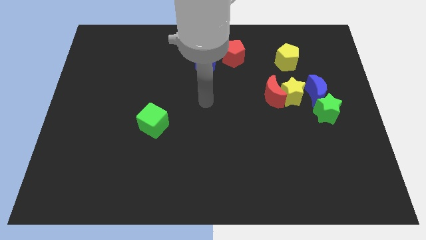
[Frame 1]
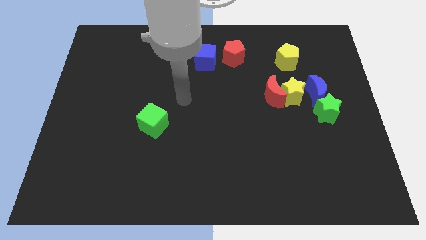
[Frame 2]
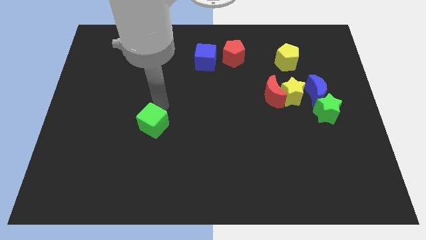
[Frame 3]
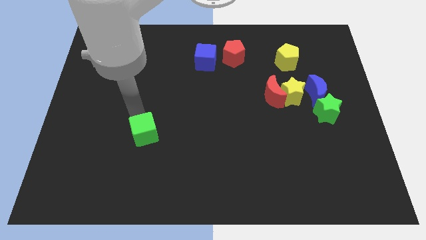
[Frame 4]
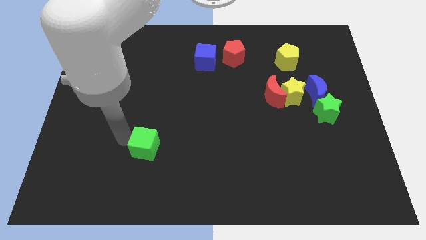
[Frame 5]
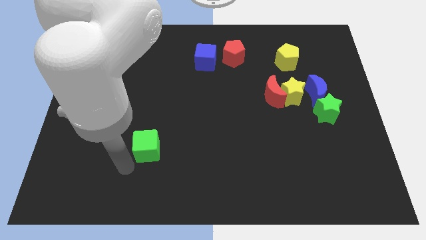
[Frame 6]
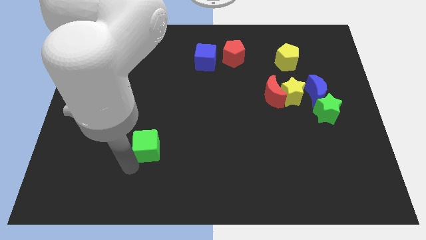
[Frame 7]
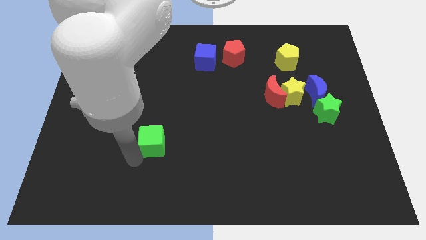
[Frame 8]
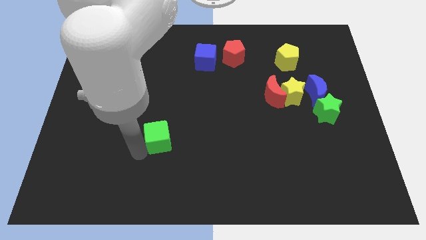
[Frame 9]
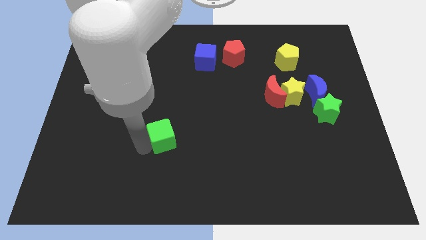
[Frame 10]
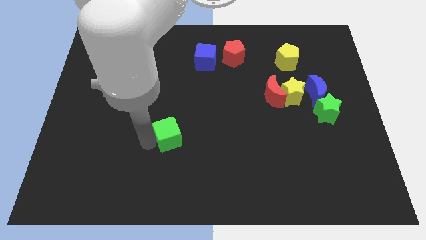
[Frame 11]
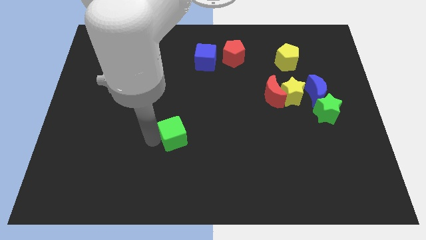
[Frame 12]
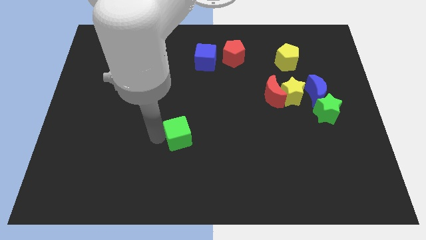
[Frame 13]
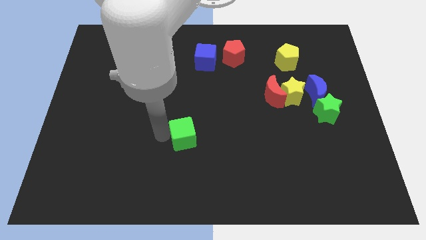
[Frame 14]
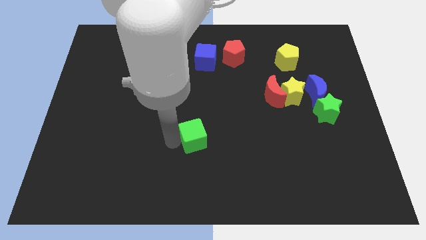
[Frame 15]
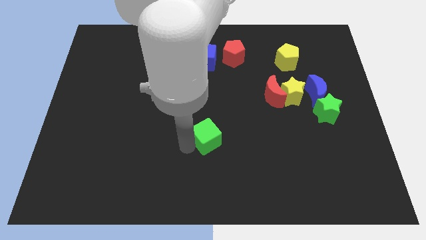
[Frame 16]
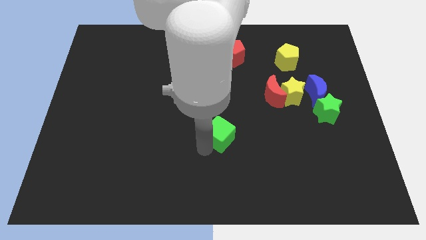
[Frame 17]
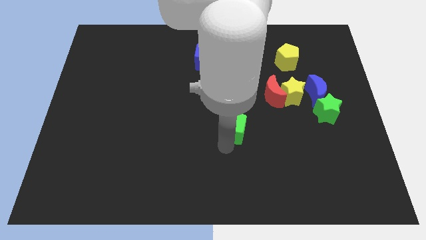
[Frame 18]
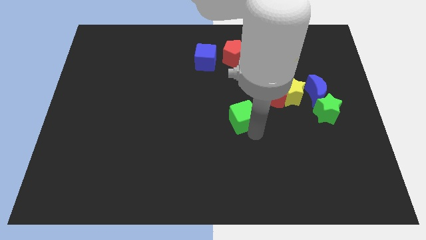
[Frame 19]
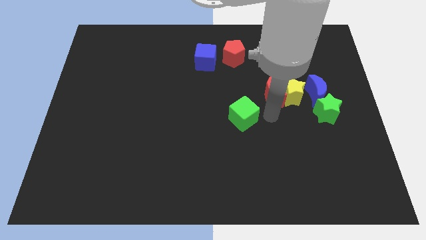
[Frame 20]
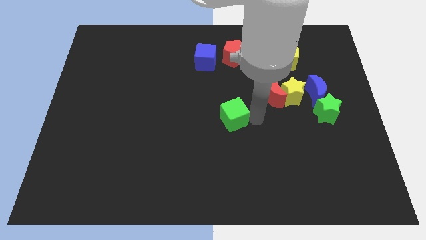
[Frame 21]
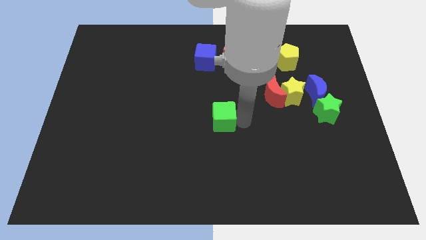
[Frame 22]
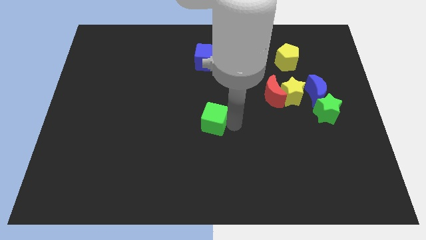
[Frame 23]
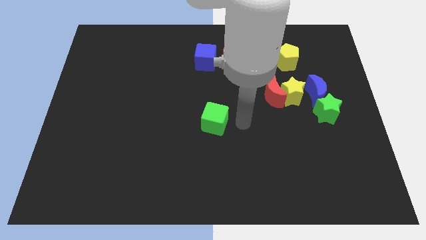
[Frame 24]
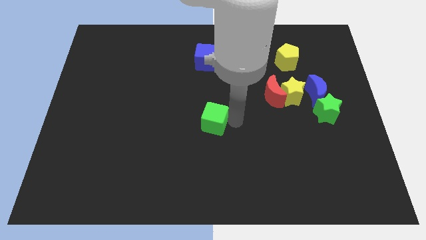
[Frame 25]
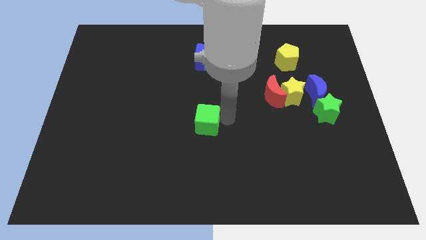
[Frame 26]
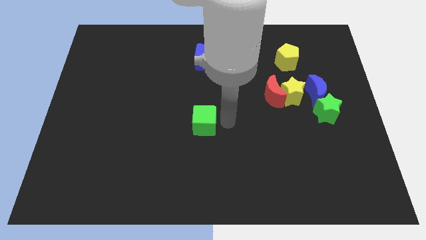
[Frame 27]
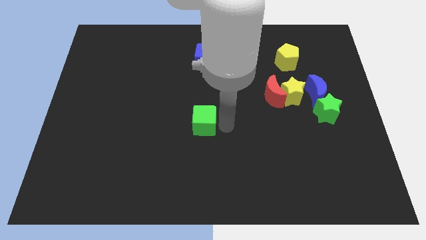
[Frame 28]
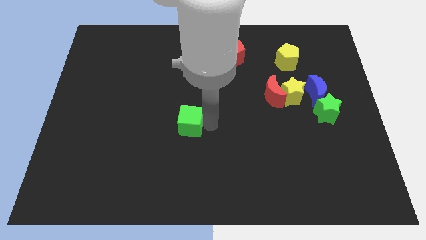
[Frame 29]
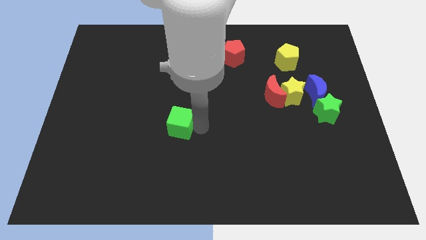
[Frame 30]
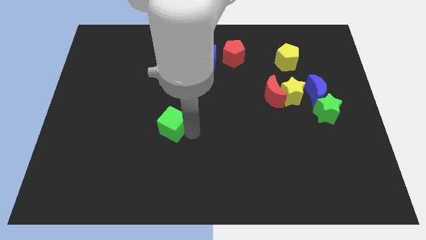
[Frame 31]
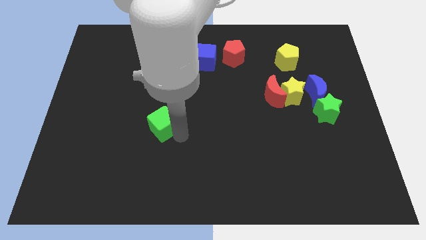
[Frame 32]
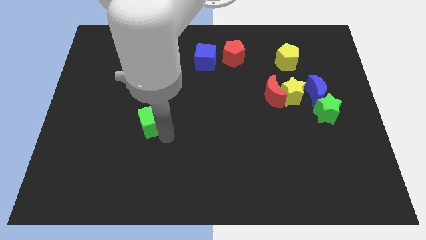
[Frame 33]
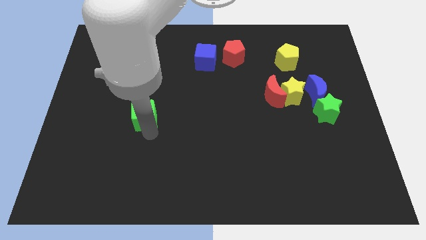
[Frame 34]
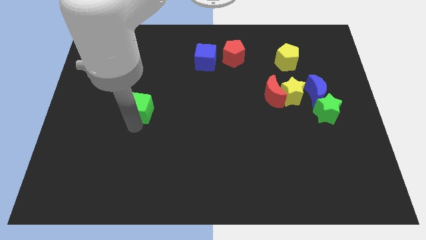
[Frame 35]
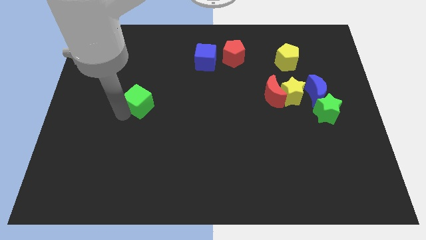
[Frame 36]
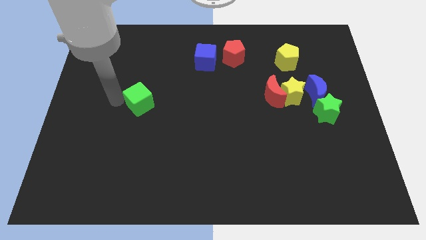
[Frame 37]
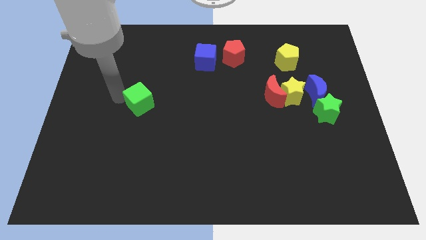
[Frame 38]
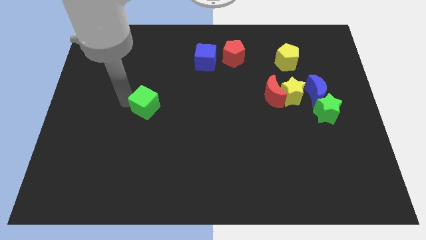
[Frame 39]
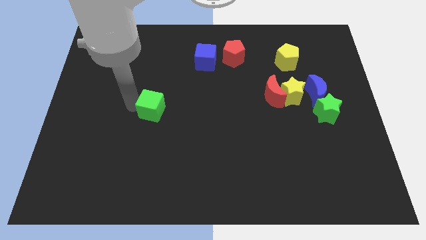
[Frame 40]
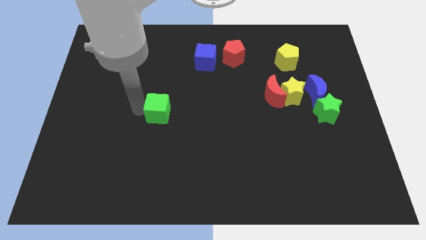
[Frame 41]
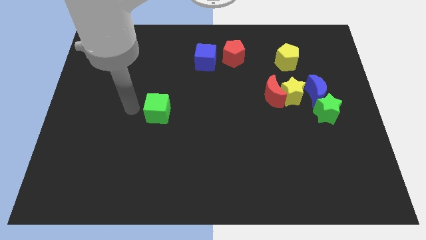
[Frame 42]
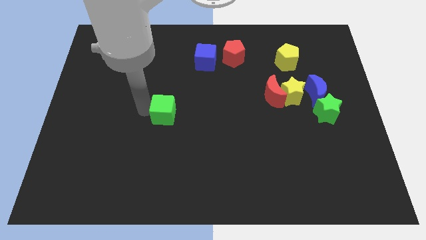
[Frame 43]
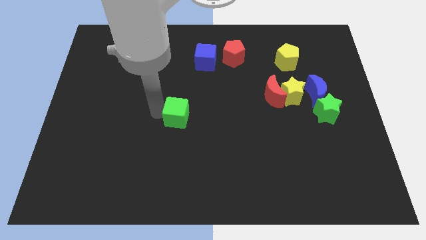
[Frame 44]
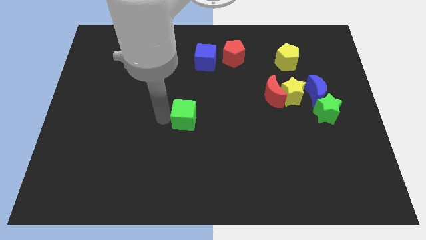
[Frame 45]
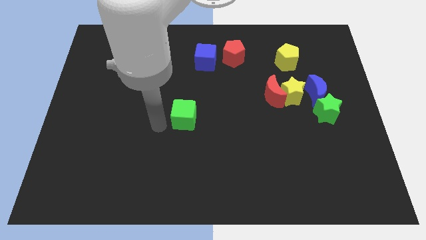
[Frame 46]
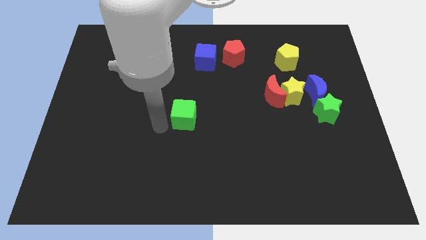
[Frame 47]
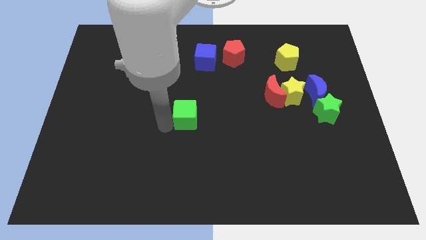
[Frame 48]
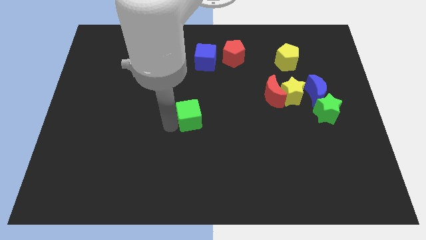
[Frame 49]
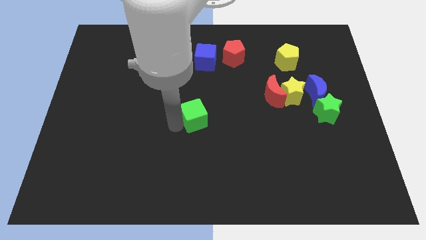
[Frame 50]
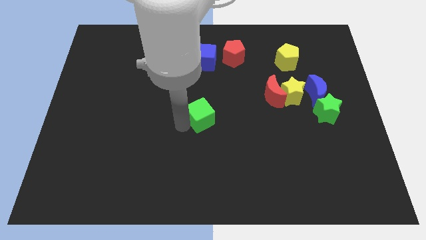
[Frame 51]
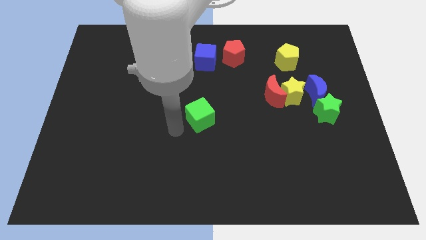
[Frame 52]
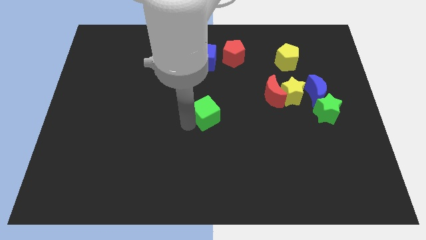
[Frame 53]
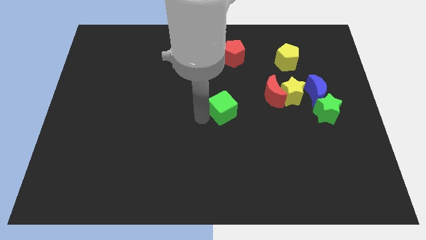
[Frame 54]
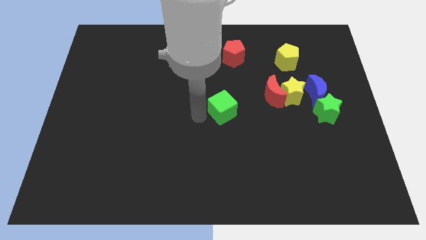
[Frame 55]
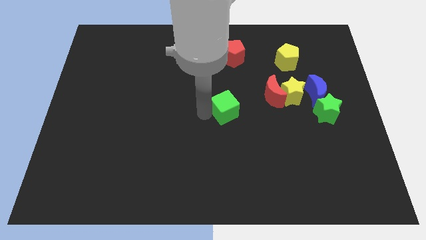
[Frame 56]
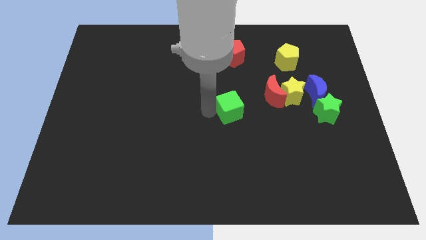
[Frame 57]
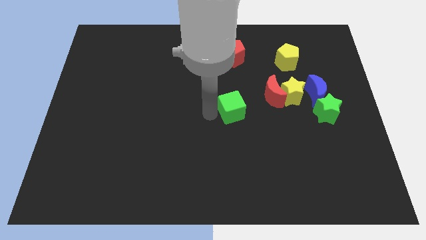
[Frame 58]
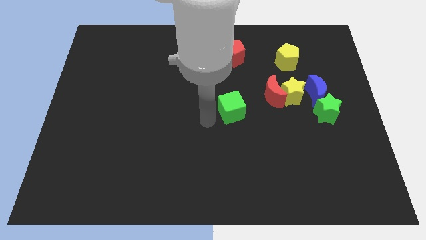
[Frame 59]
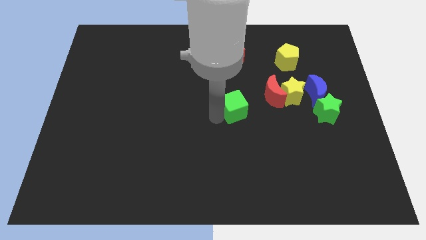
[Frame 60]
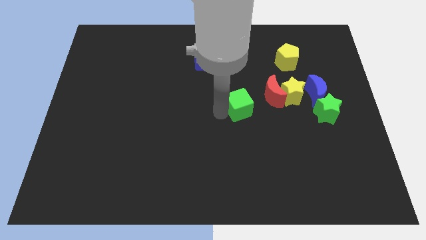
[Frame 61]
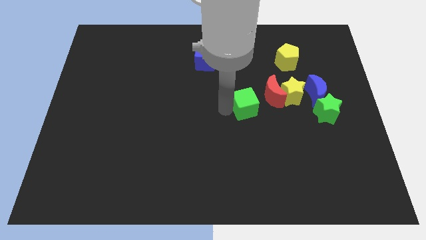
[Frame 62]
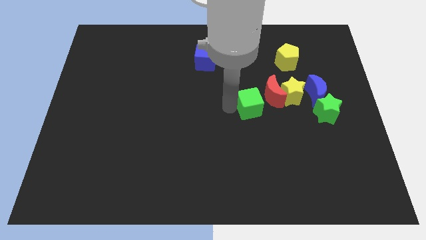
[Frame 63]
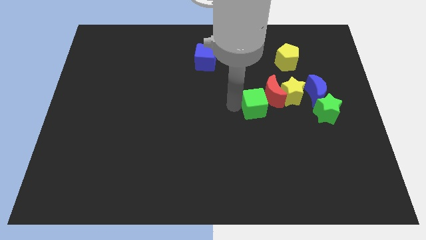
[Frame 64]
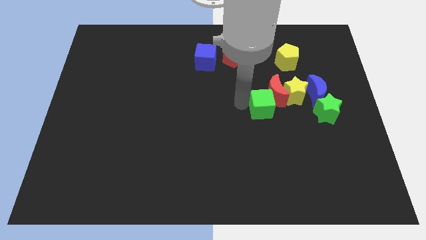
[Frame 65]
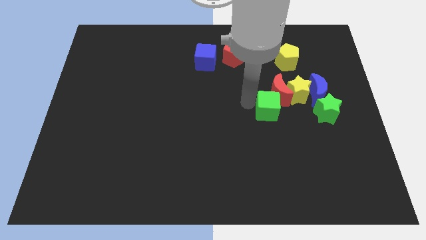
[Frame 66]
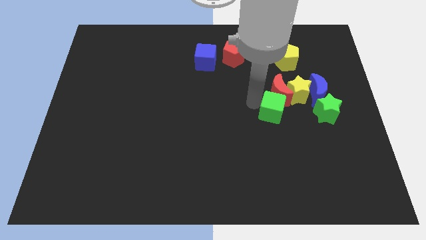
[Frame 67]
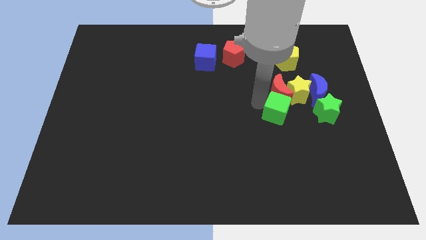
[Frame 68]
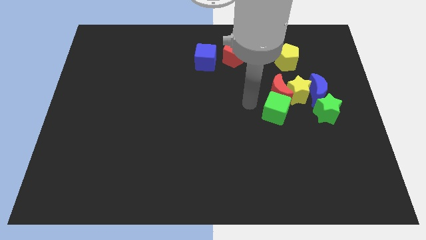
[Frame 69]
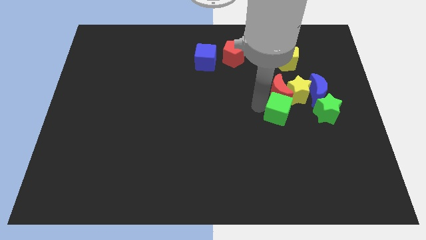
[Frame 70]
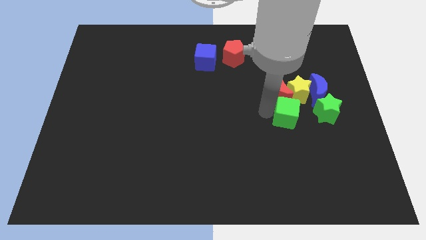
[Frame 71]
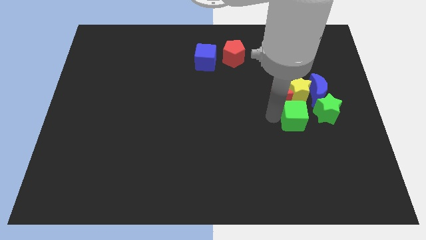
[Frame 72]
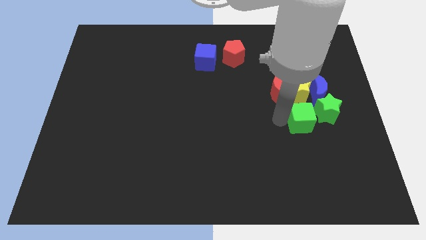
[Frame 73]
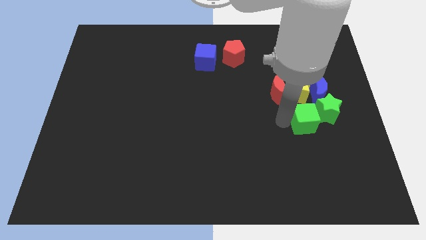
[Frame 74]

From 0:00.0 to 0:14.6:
push the green cube to the green star
